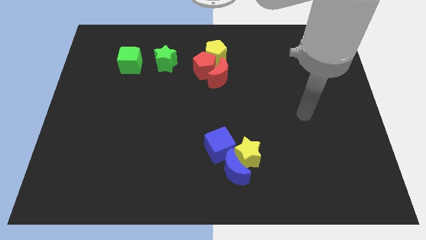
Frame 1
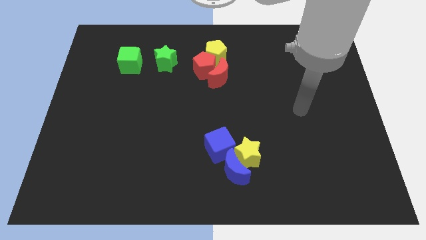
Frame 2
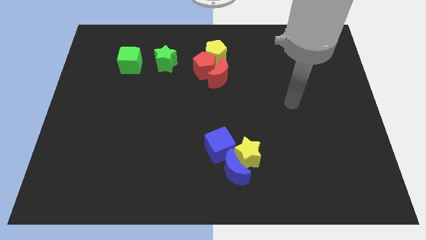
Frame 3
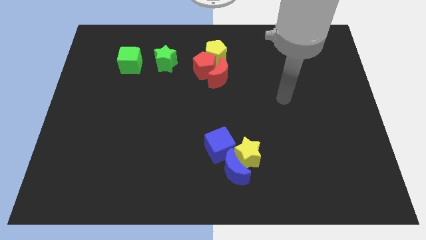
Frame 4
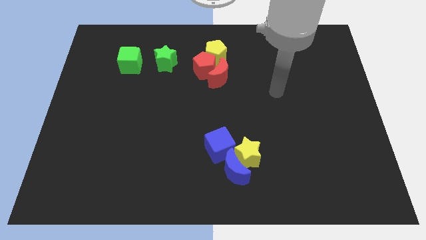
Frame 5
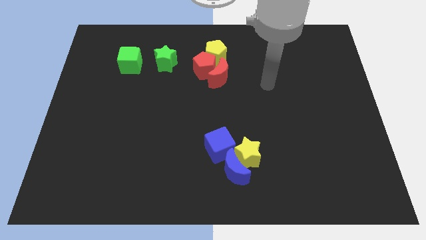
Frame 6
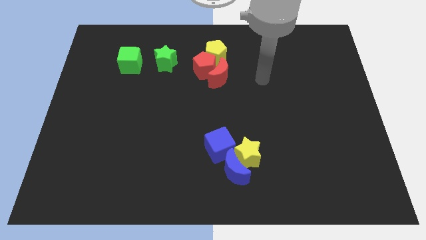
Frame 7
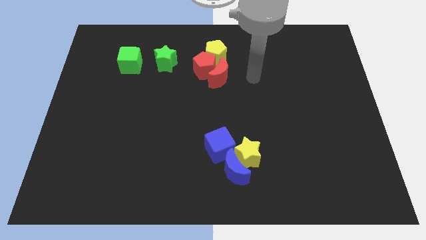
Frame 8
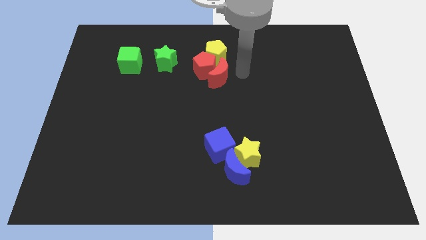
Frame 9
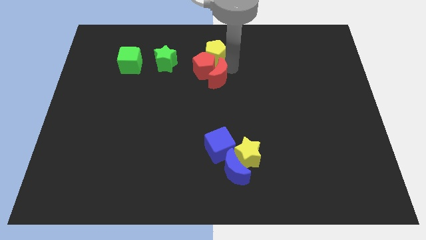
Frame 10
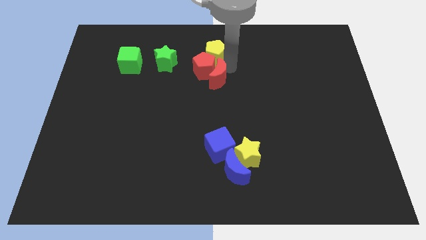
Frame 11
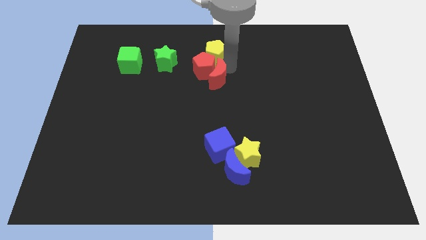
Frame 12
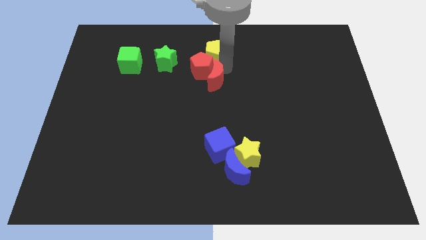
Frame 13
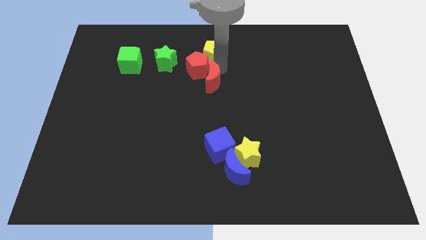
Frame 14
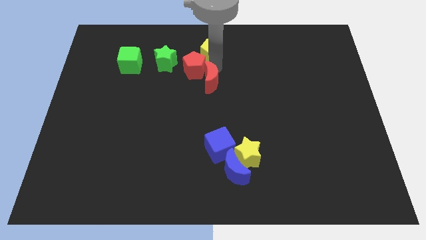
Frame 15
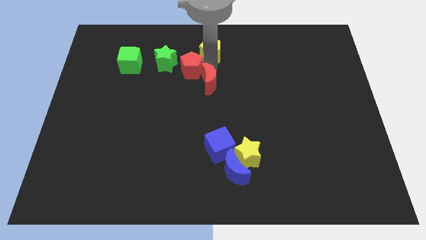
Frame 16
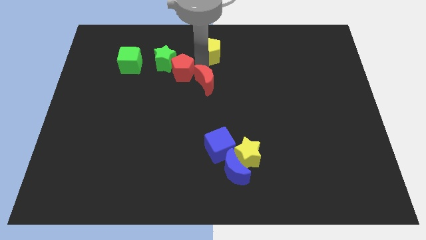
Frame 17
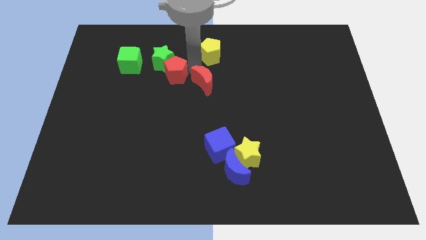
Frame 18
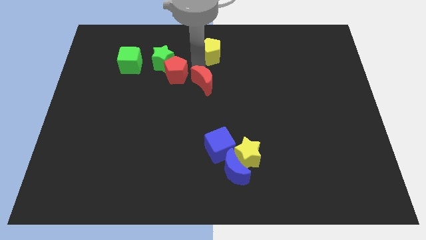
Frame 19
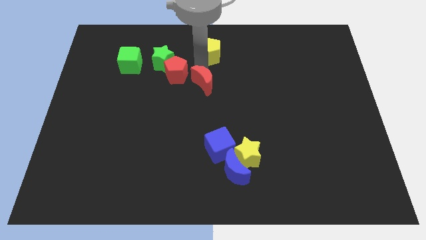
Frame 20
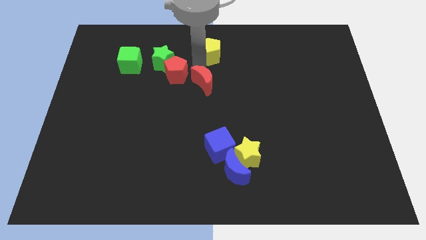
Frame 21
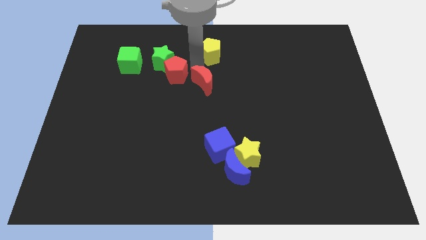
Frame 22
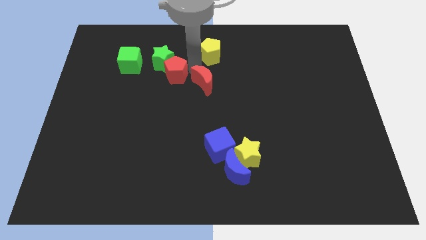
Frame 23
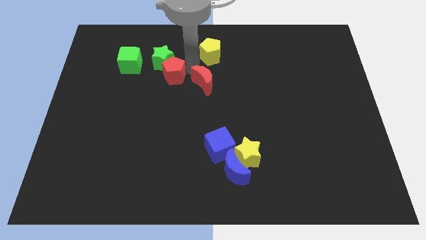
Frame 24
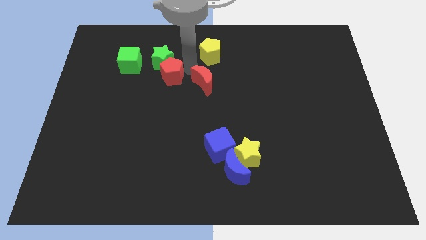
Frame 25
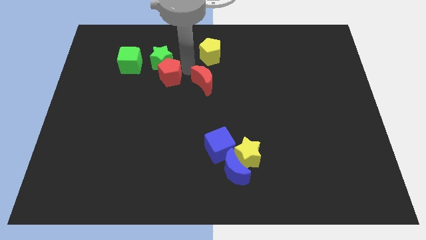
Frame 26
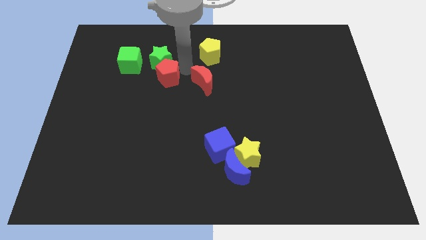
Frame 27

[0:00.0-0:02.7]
move the red pentagon away from the red moon and yellow pentagon

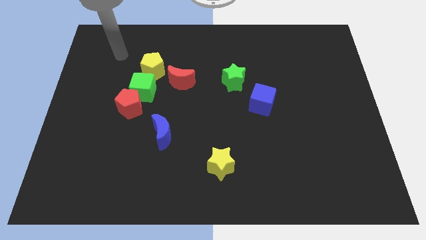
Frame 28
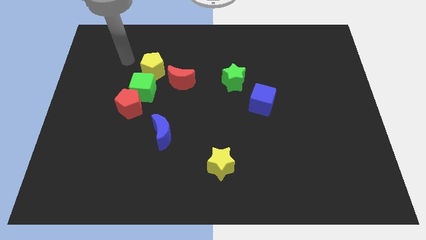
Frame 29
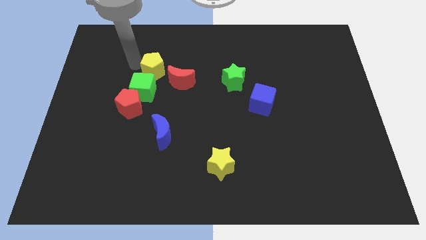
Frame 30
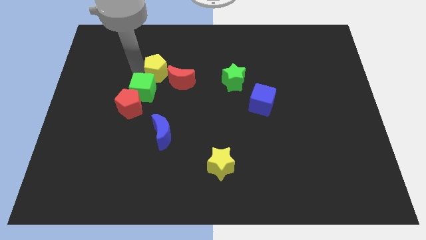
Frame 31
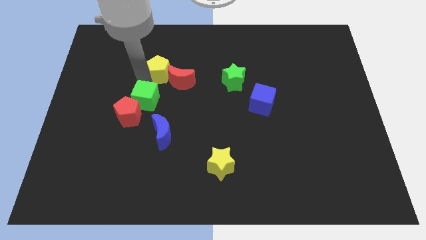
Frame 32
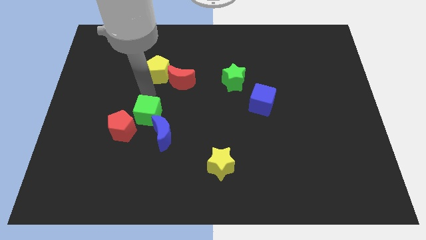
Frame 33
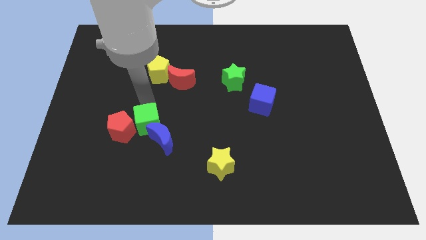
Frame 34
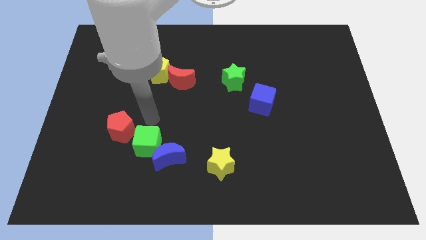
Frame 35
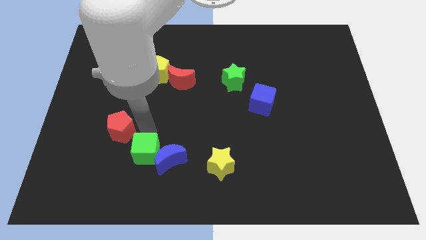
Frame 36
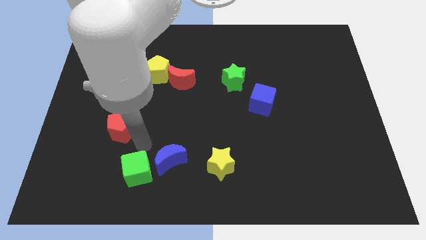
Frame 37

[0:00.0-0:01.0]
move the red pentagon away from the green cube

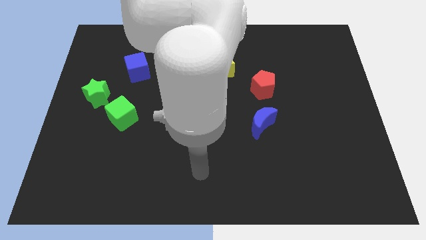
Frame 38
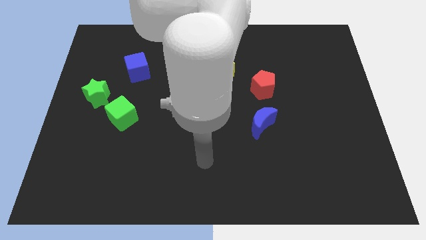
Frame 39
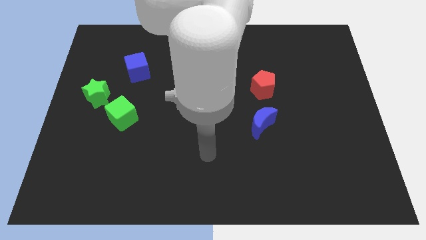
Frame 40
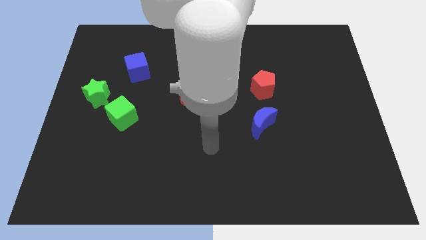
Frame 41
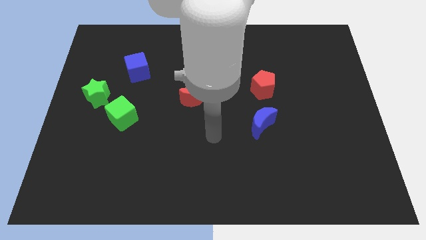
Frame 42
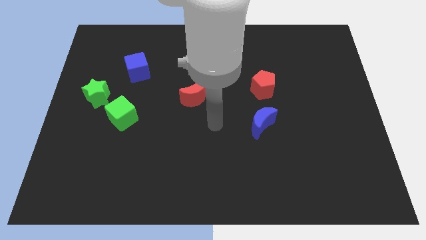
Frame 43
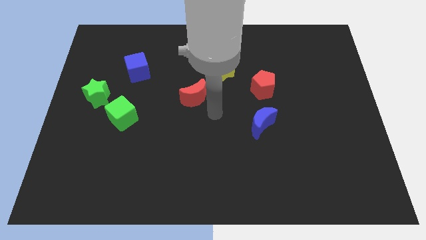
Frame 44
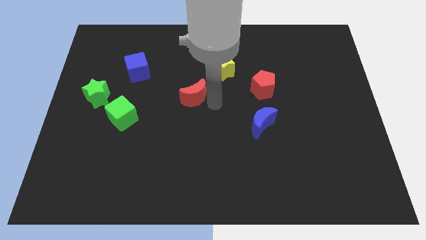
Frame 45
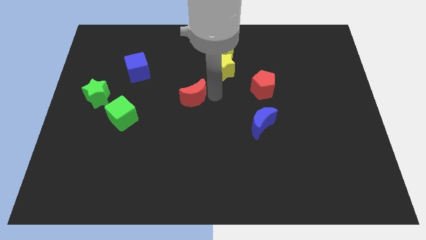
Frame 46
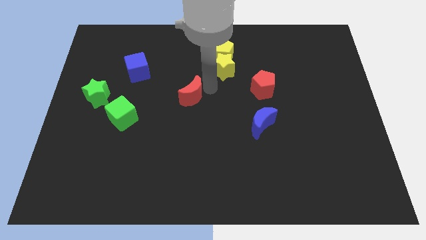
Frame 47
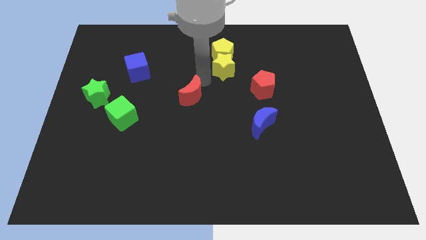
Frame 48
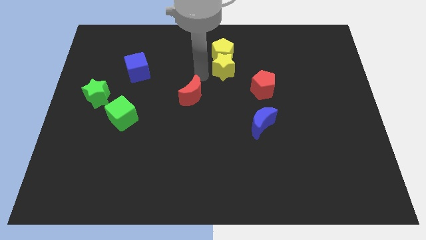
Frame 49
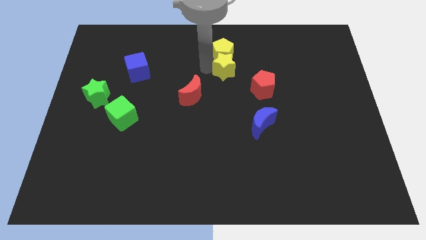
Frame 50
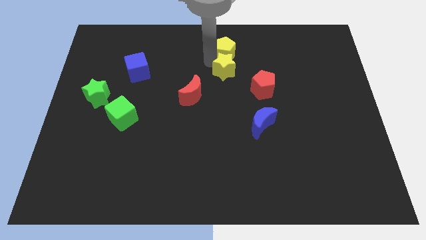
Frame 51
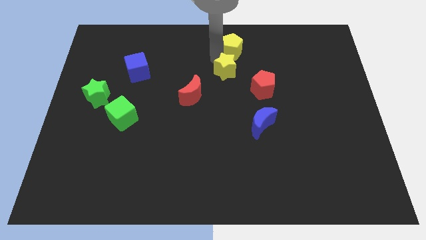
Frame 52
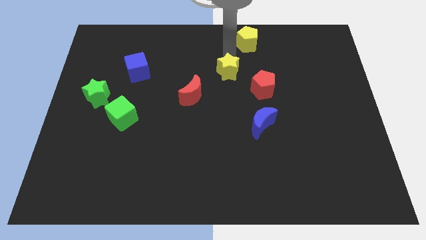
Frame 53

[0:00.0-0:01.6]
pull the yellow star apart from the yellow pentagon

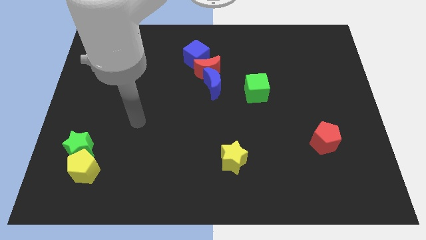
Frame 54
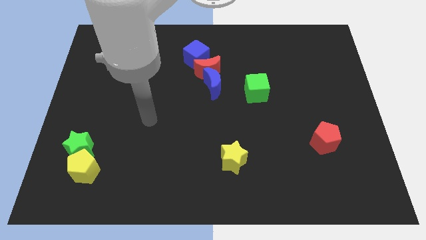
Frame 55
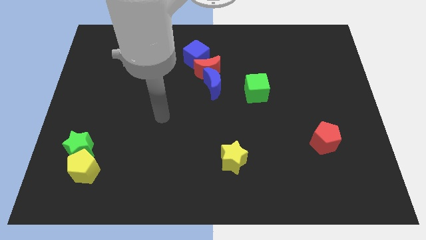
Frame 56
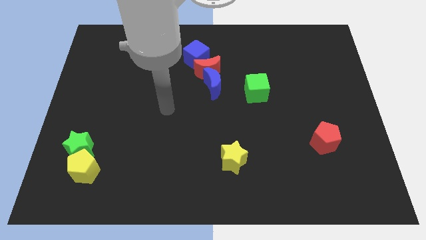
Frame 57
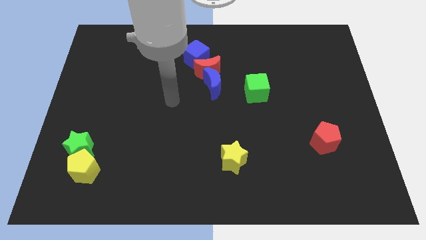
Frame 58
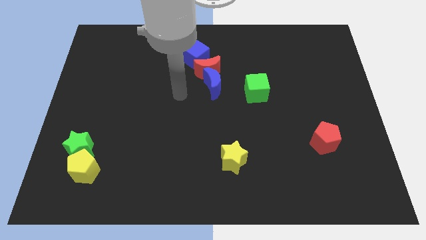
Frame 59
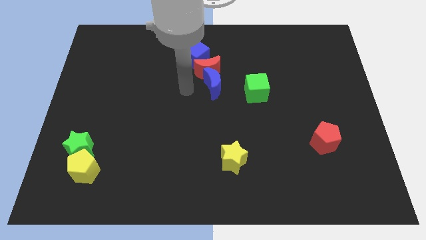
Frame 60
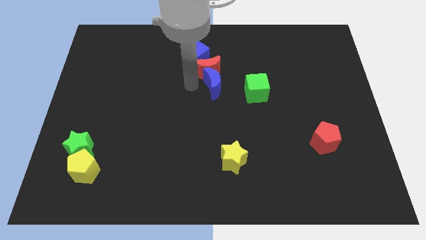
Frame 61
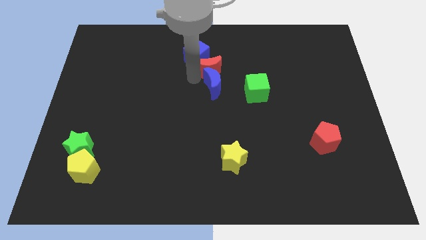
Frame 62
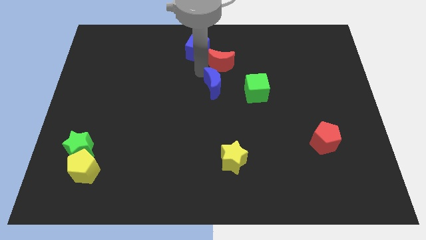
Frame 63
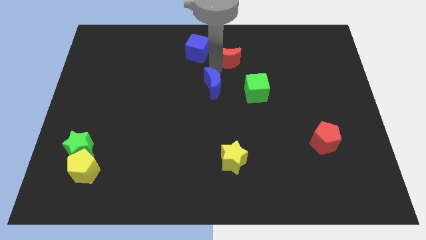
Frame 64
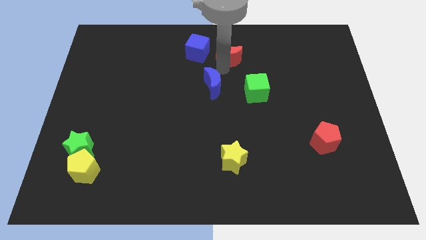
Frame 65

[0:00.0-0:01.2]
move the blue moon away from the red moon

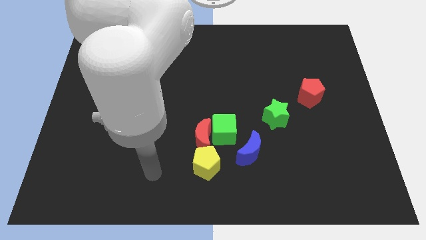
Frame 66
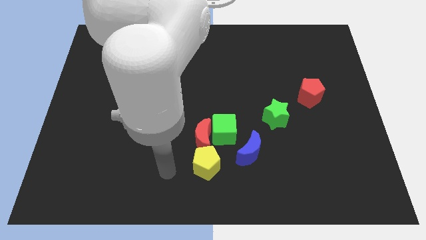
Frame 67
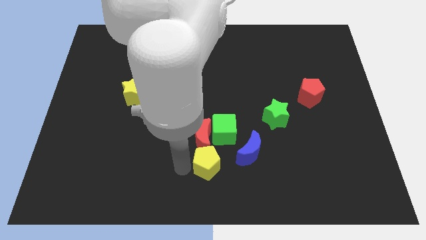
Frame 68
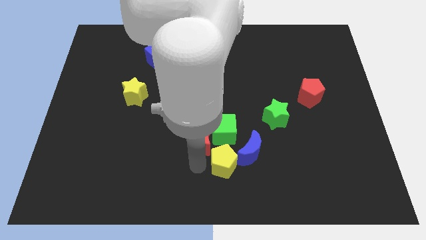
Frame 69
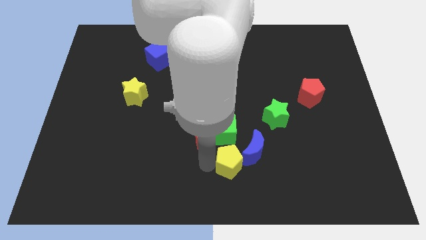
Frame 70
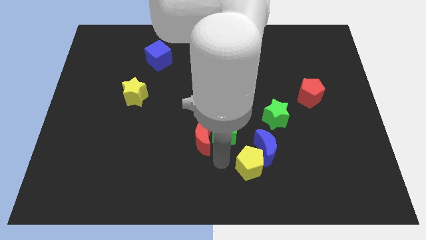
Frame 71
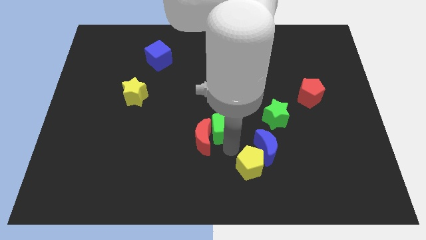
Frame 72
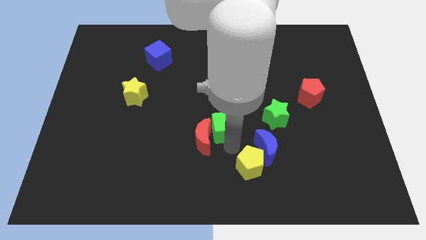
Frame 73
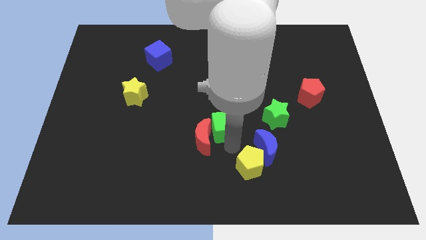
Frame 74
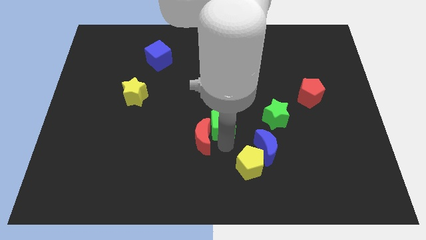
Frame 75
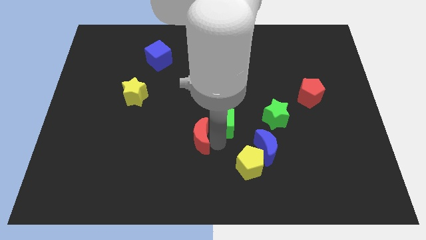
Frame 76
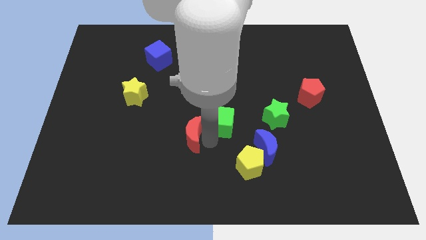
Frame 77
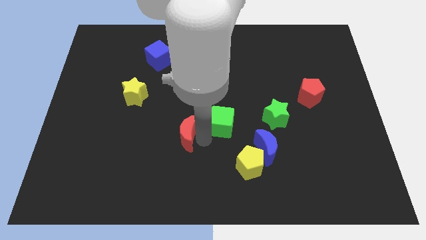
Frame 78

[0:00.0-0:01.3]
separate the red moon from the green cube and yellow pentagon

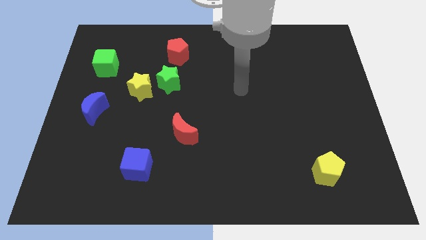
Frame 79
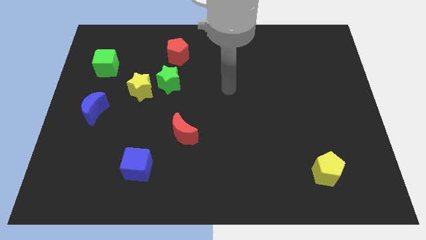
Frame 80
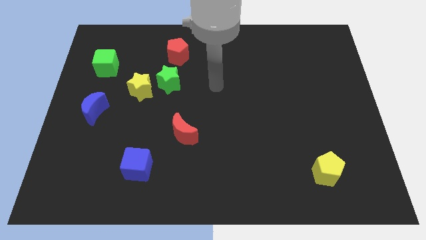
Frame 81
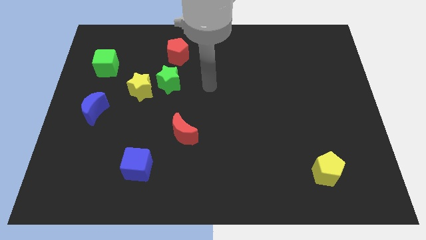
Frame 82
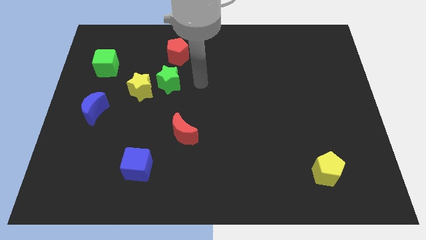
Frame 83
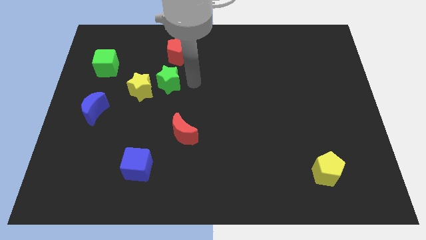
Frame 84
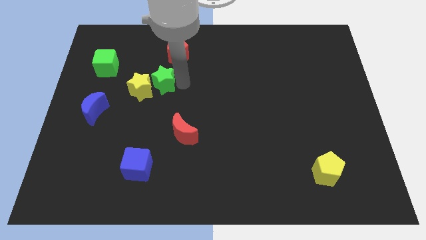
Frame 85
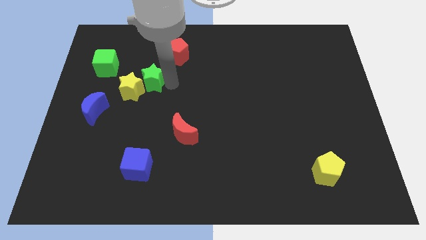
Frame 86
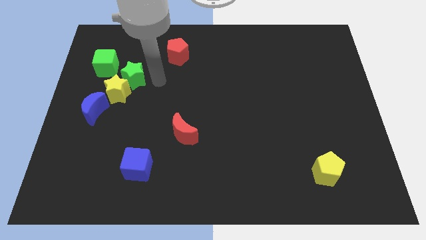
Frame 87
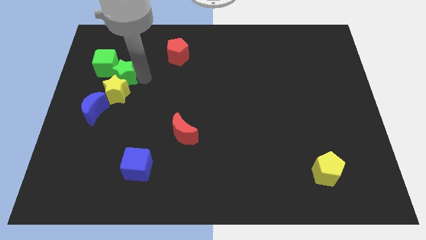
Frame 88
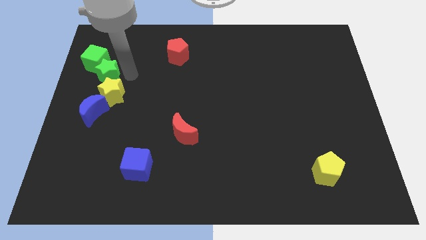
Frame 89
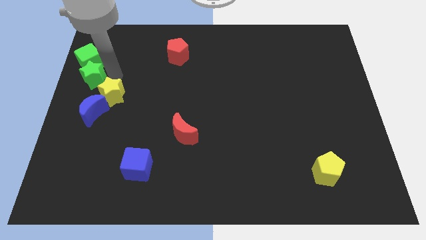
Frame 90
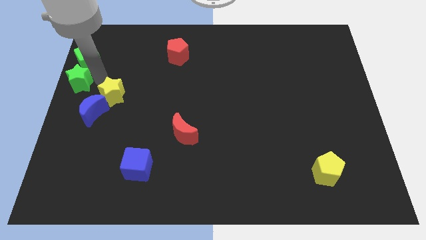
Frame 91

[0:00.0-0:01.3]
move the yellow star away from the green star

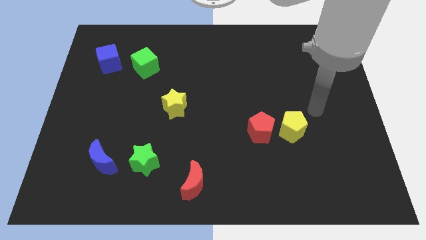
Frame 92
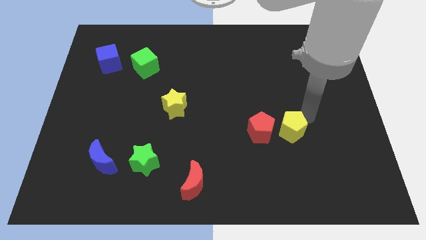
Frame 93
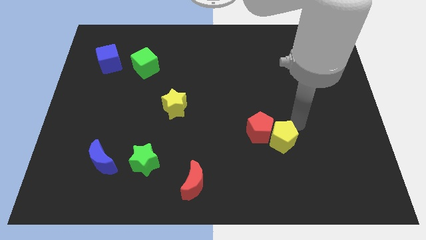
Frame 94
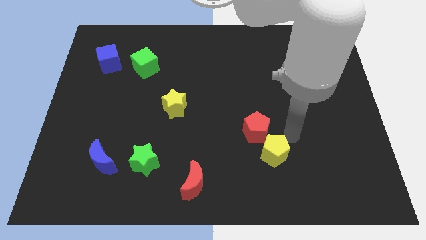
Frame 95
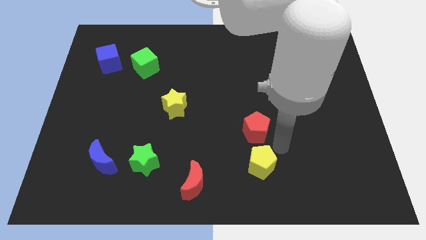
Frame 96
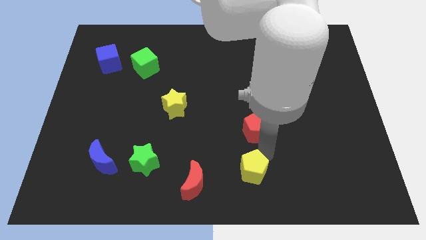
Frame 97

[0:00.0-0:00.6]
move the red pentagon away from the yellow pentagon
